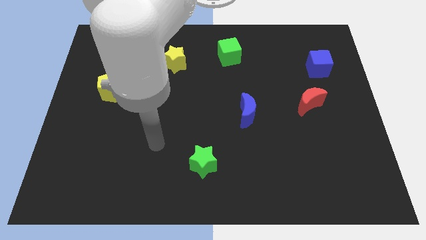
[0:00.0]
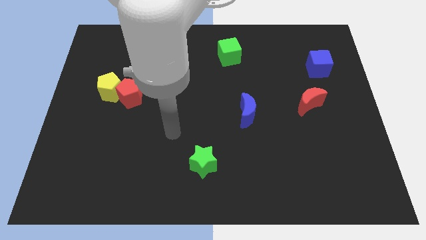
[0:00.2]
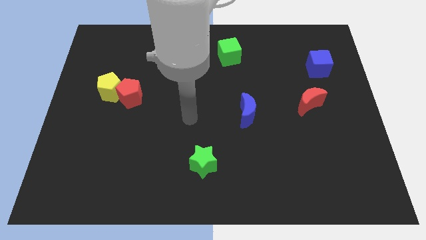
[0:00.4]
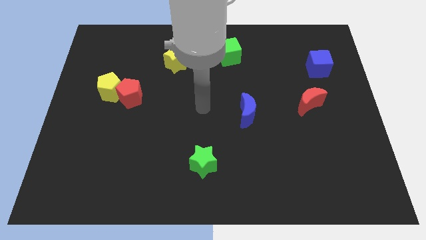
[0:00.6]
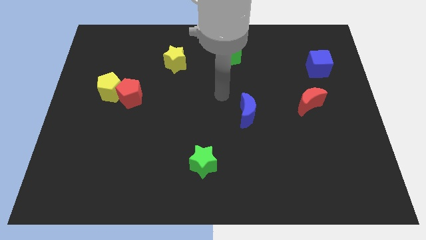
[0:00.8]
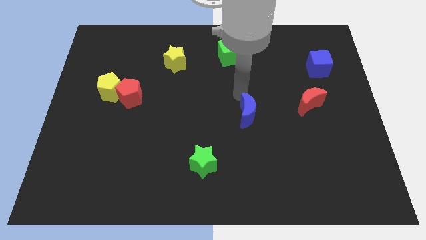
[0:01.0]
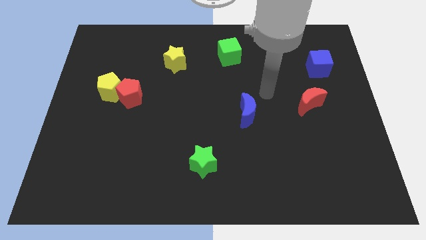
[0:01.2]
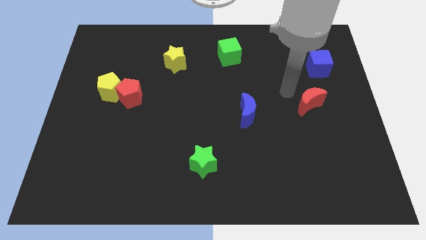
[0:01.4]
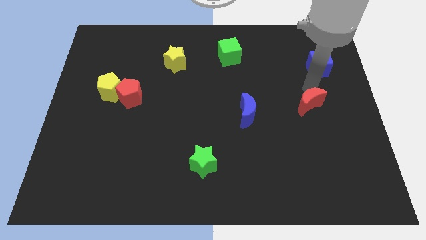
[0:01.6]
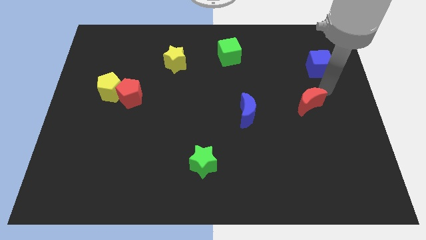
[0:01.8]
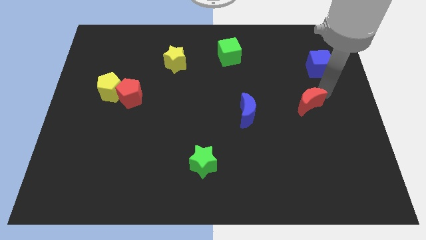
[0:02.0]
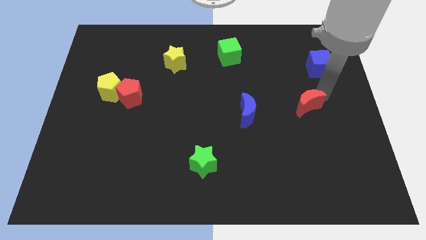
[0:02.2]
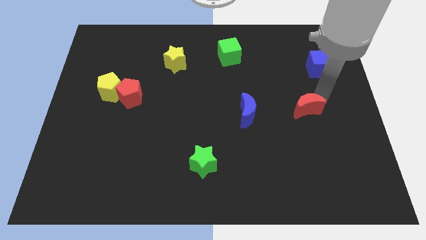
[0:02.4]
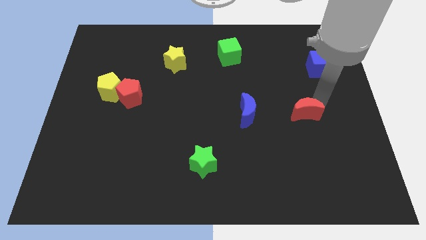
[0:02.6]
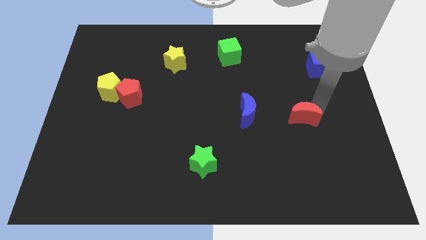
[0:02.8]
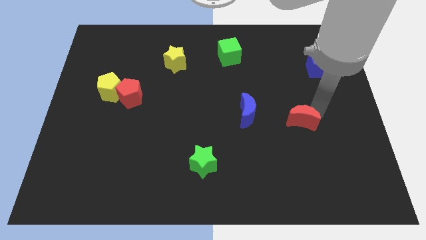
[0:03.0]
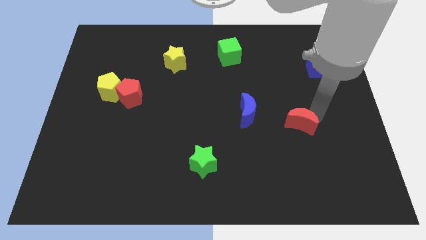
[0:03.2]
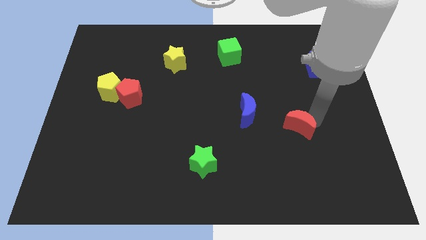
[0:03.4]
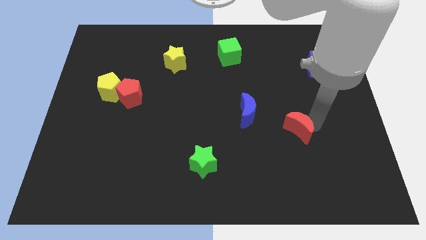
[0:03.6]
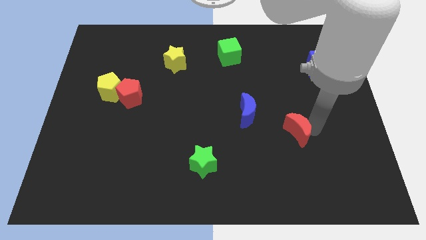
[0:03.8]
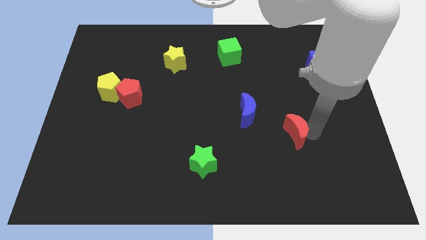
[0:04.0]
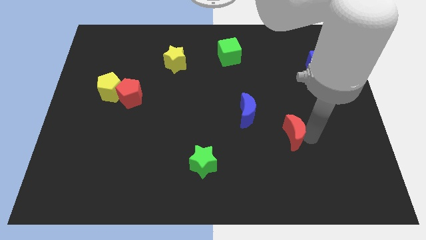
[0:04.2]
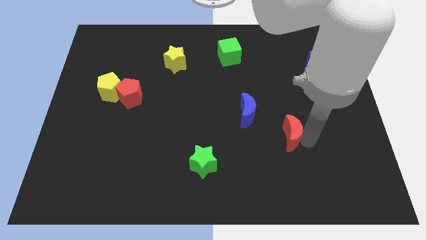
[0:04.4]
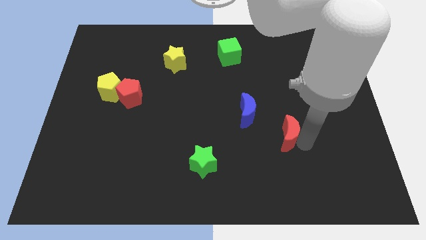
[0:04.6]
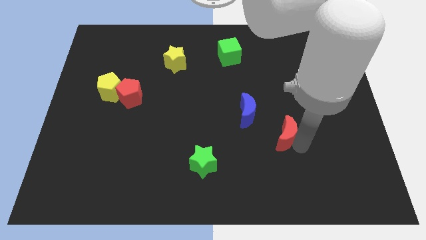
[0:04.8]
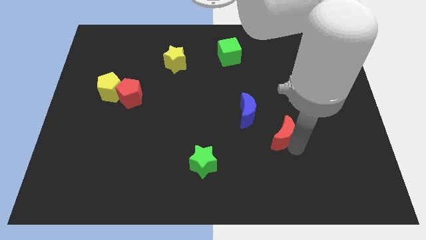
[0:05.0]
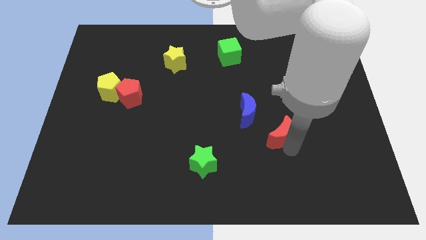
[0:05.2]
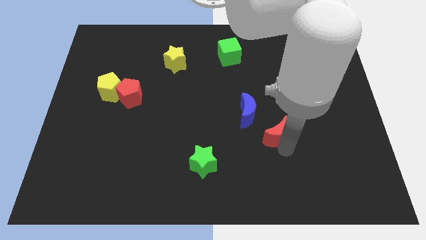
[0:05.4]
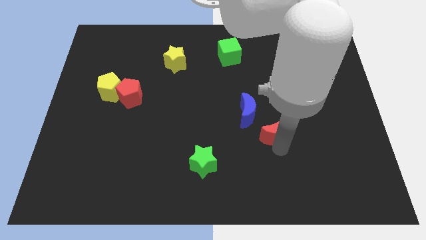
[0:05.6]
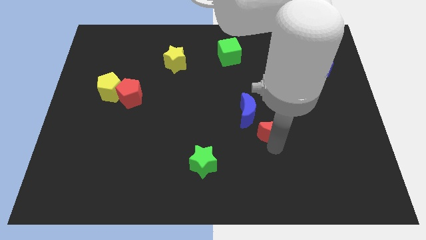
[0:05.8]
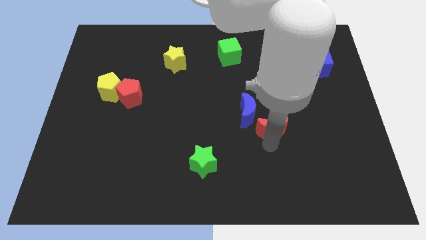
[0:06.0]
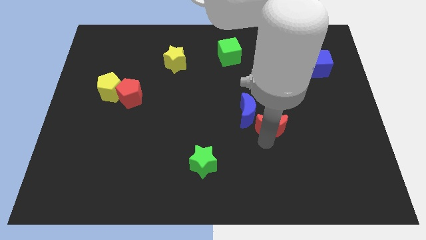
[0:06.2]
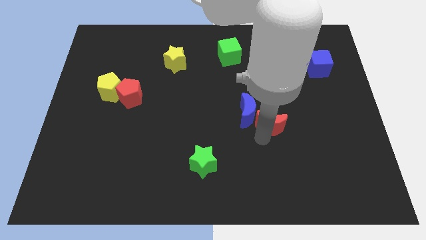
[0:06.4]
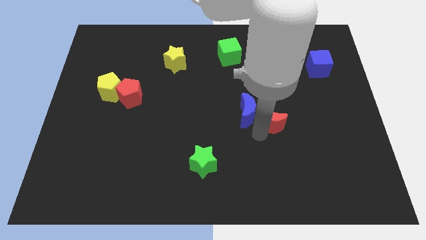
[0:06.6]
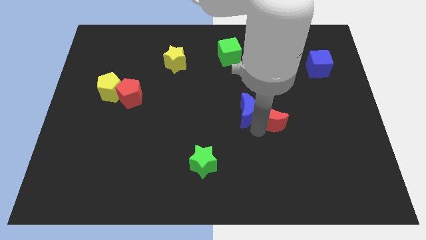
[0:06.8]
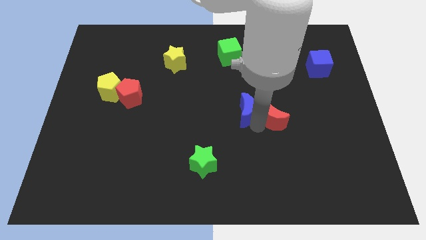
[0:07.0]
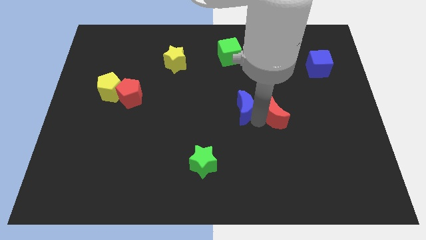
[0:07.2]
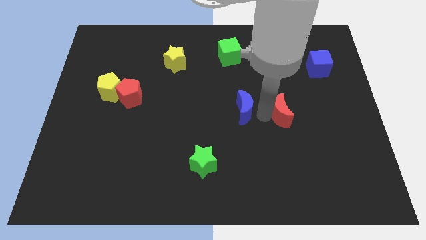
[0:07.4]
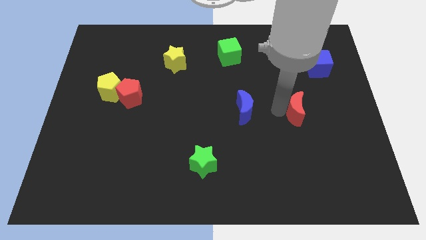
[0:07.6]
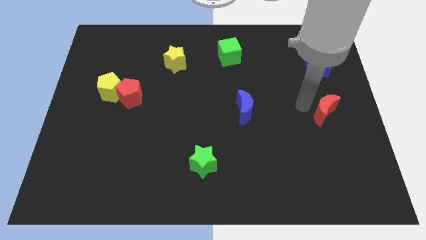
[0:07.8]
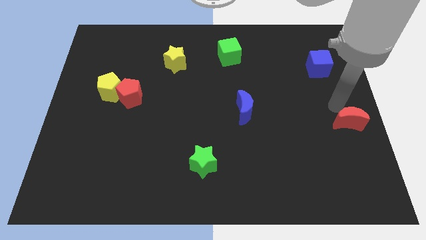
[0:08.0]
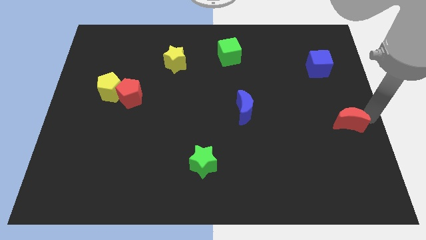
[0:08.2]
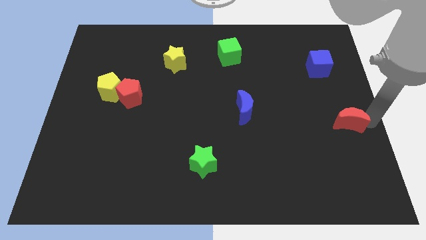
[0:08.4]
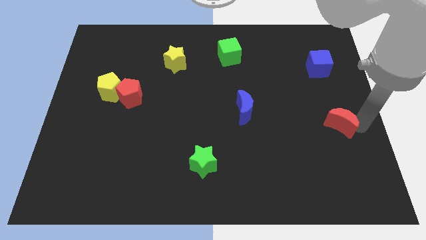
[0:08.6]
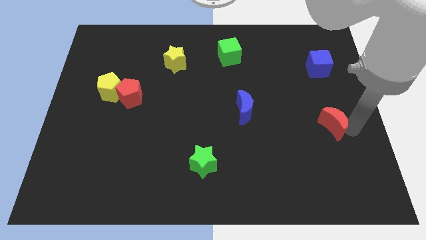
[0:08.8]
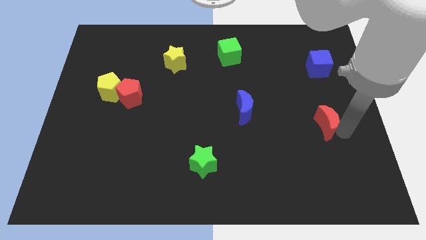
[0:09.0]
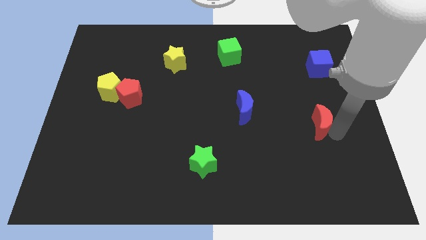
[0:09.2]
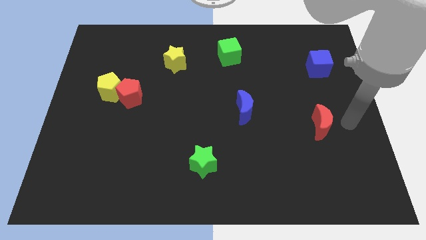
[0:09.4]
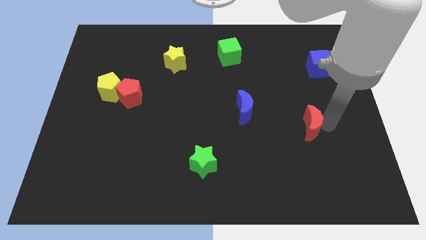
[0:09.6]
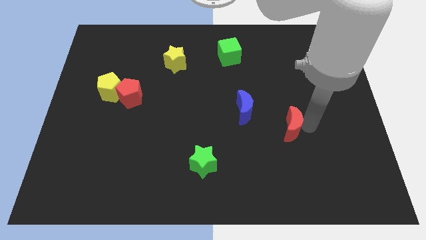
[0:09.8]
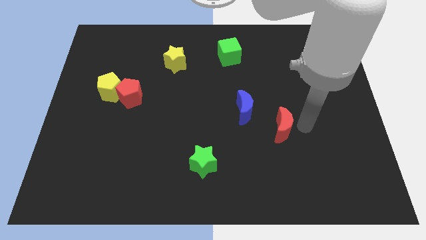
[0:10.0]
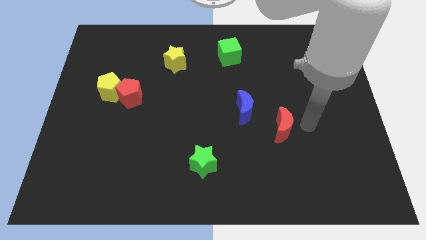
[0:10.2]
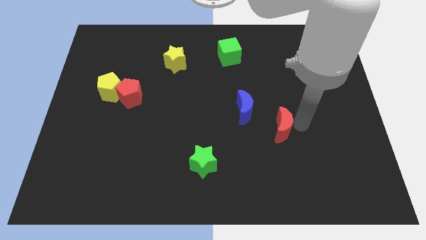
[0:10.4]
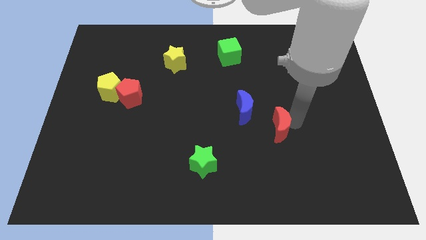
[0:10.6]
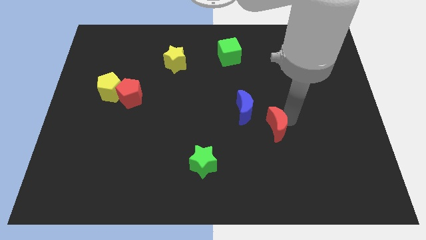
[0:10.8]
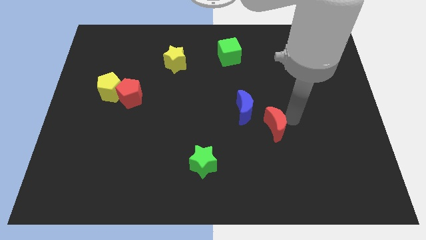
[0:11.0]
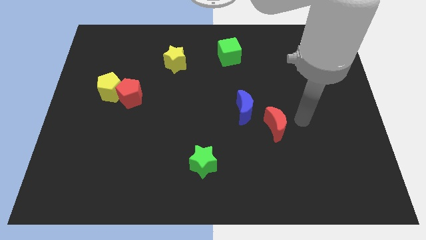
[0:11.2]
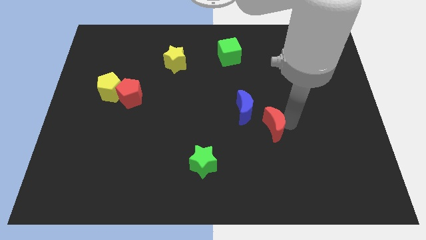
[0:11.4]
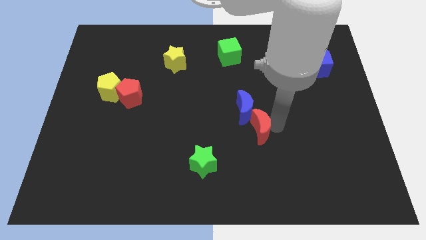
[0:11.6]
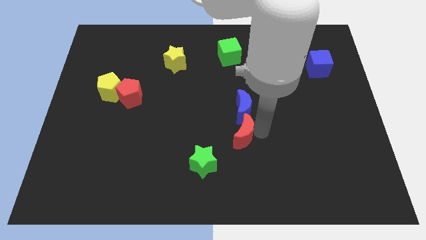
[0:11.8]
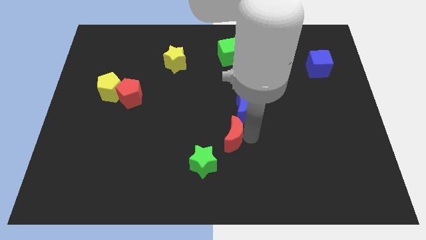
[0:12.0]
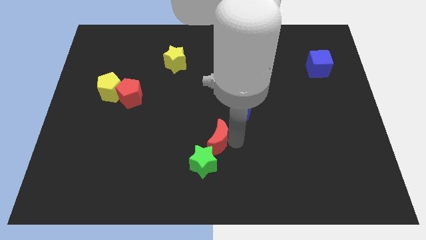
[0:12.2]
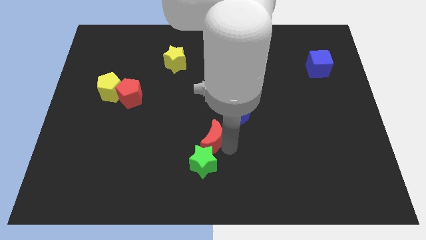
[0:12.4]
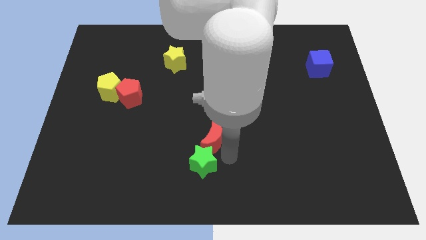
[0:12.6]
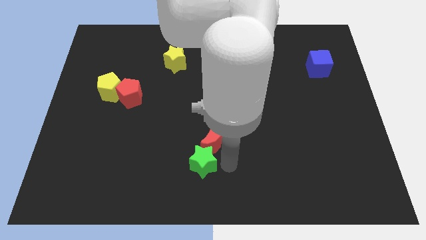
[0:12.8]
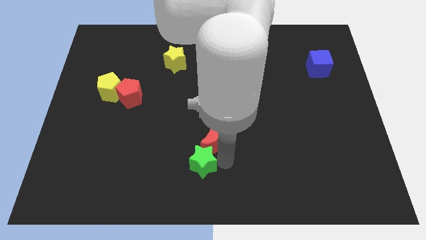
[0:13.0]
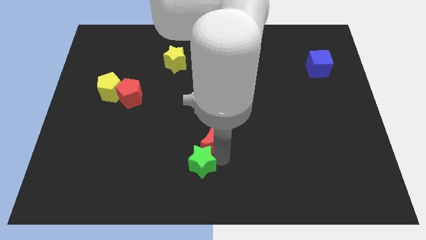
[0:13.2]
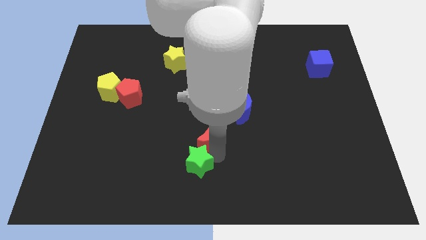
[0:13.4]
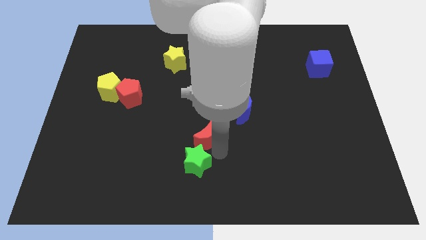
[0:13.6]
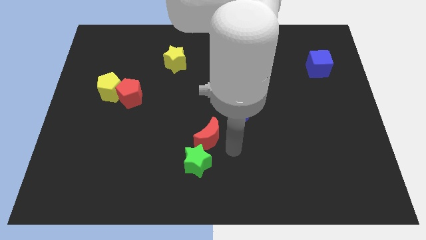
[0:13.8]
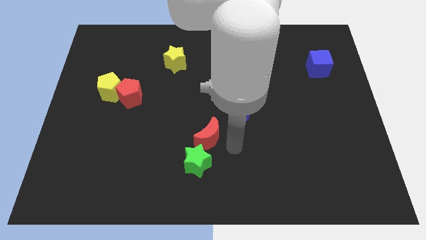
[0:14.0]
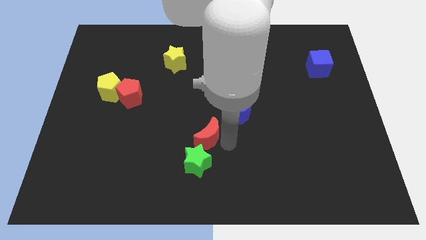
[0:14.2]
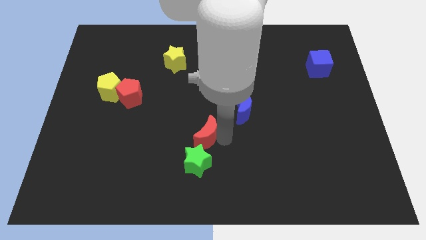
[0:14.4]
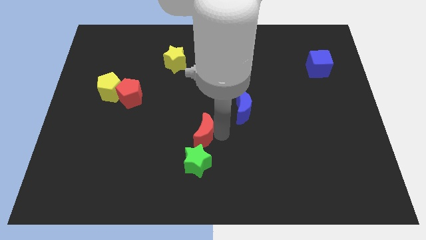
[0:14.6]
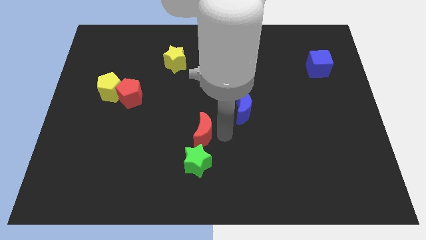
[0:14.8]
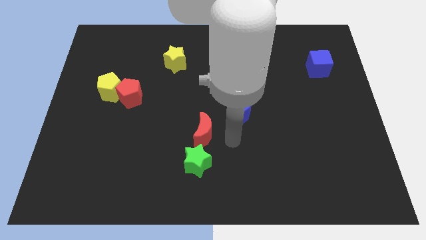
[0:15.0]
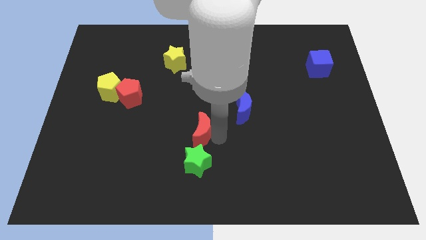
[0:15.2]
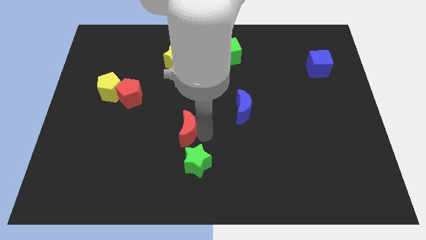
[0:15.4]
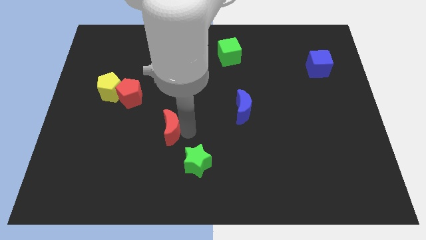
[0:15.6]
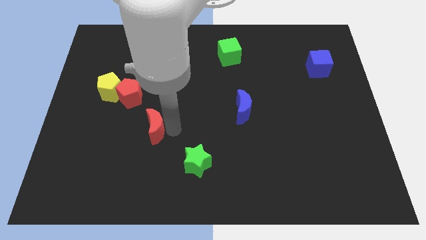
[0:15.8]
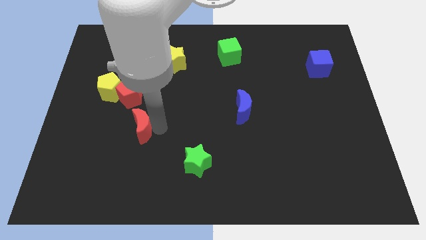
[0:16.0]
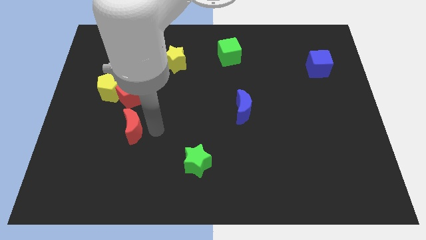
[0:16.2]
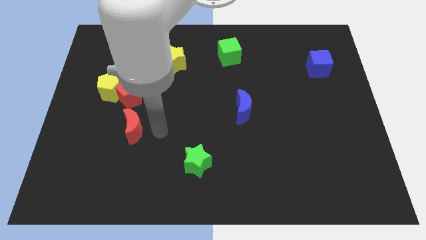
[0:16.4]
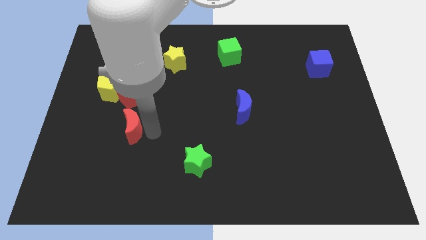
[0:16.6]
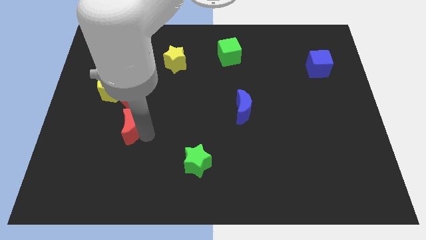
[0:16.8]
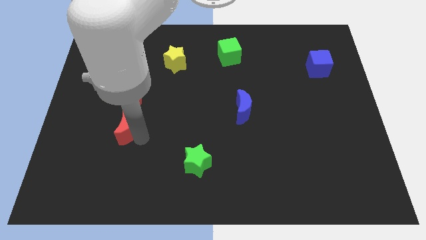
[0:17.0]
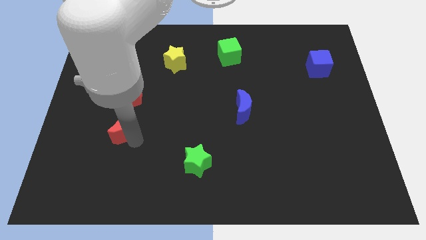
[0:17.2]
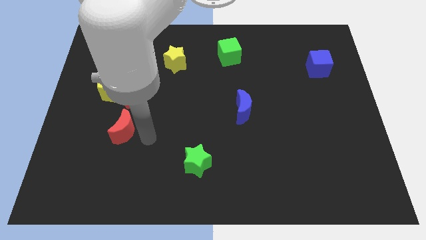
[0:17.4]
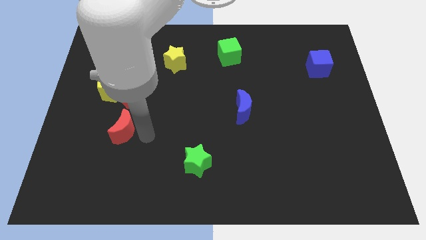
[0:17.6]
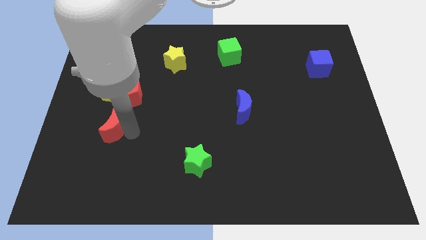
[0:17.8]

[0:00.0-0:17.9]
push the red moon to the bottom side of the yellow pentagon
